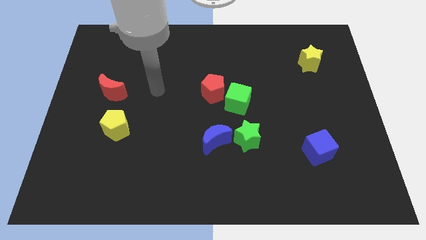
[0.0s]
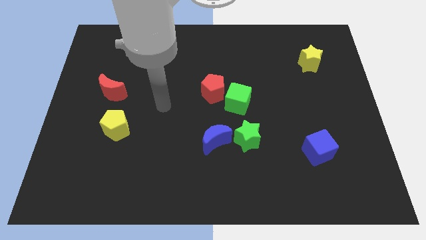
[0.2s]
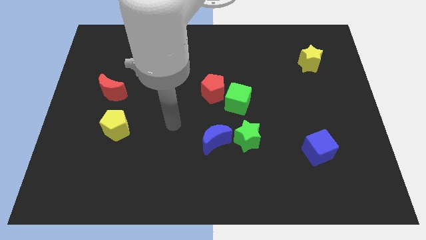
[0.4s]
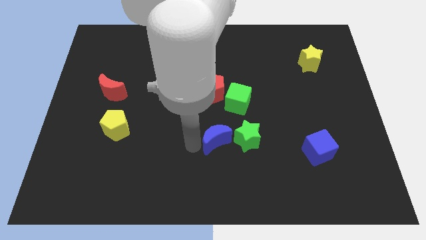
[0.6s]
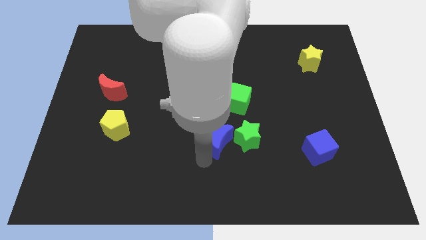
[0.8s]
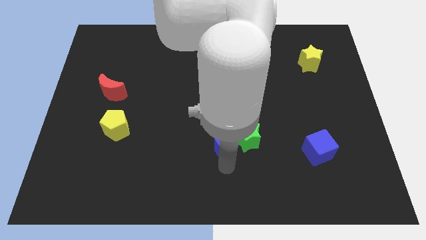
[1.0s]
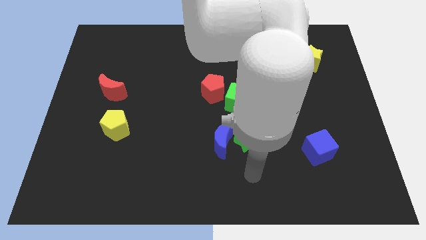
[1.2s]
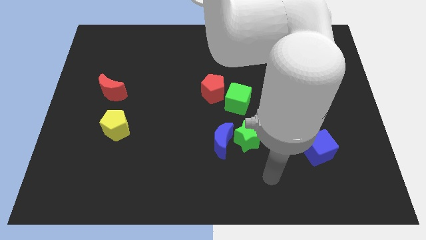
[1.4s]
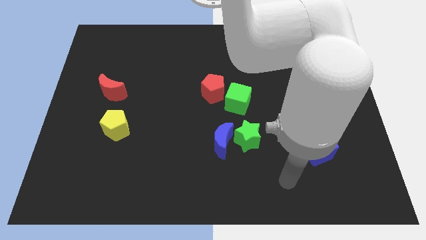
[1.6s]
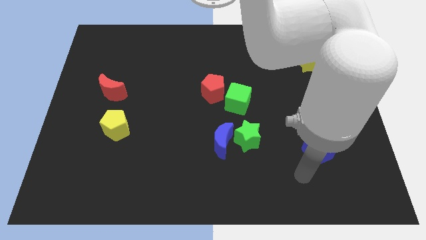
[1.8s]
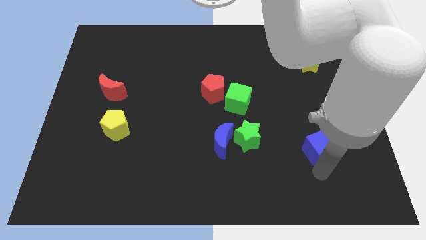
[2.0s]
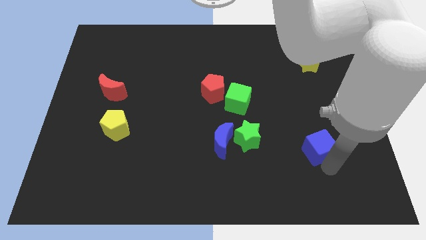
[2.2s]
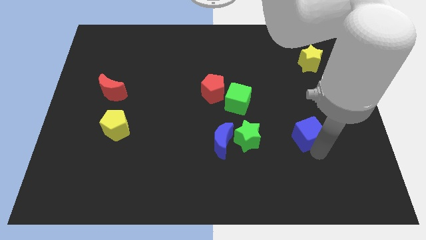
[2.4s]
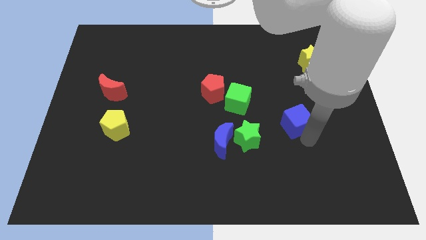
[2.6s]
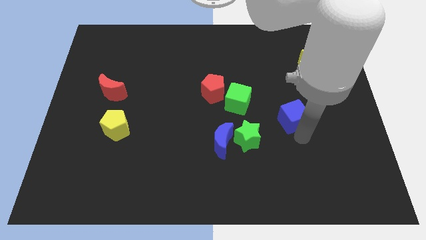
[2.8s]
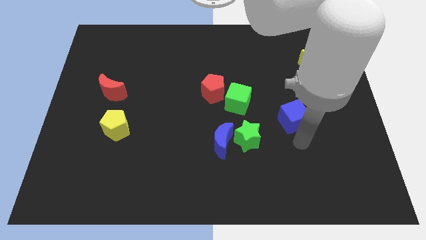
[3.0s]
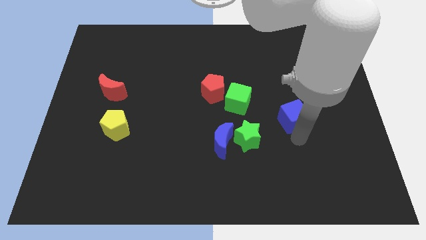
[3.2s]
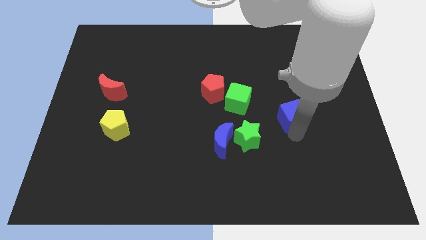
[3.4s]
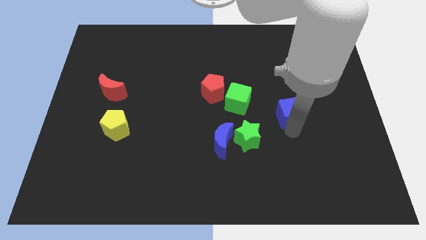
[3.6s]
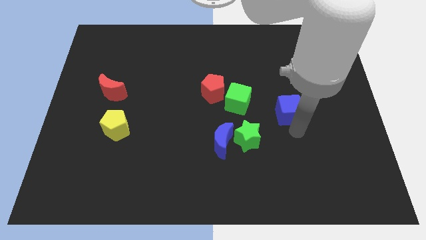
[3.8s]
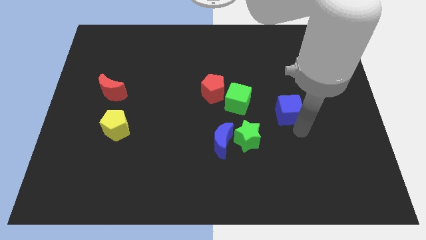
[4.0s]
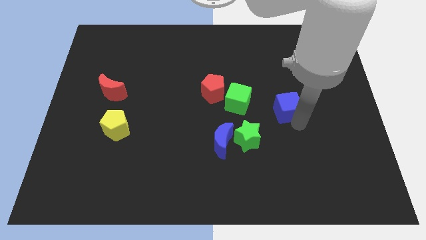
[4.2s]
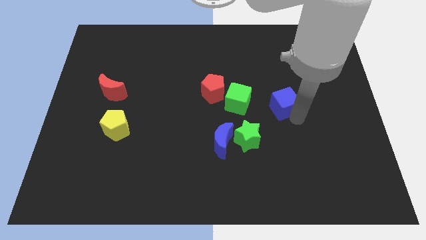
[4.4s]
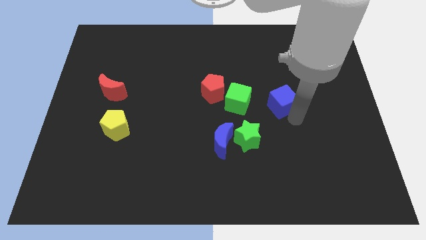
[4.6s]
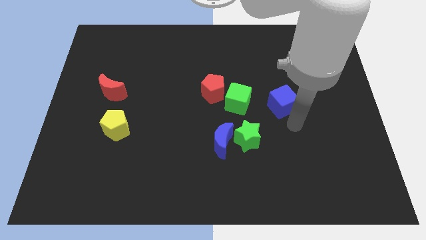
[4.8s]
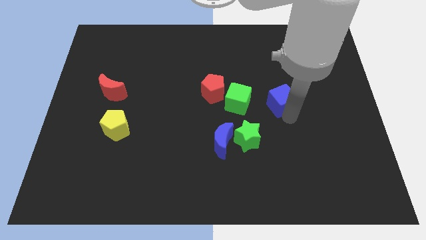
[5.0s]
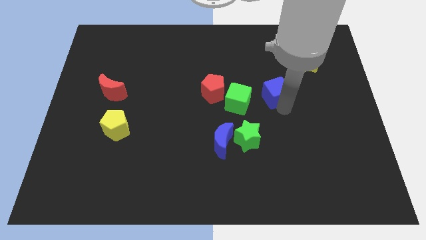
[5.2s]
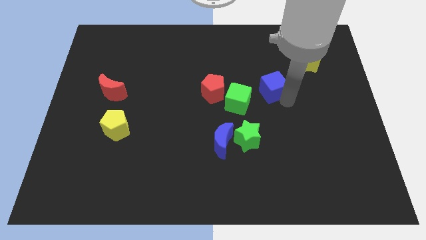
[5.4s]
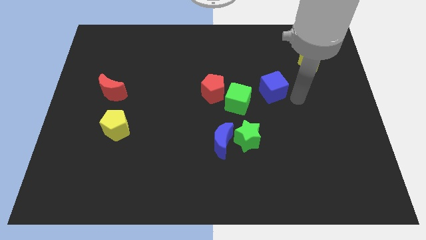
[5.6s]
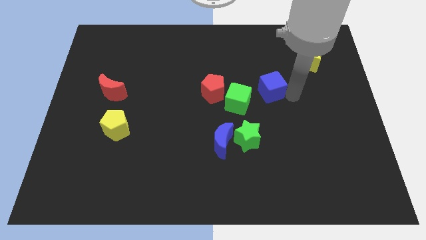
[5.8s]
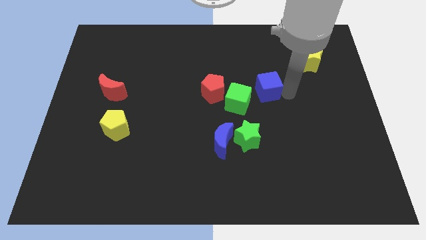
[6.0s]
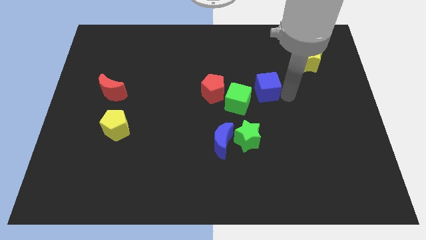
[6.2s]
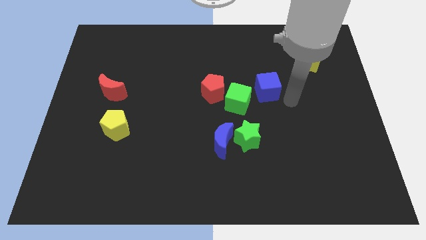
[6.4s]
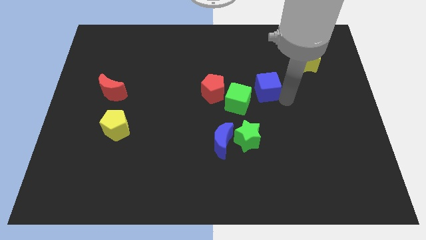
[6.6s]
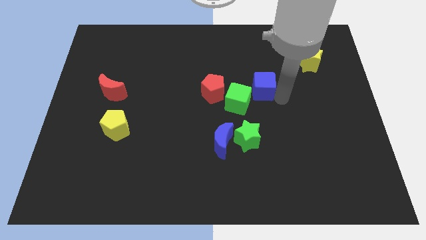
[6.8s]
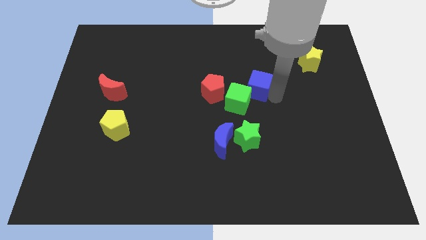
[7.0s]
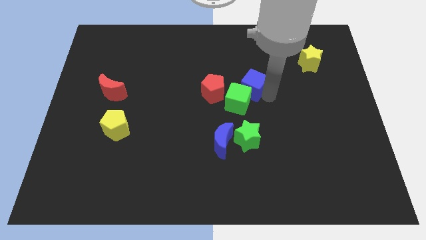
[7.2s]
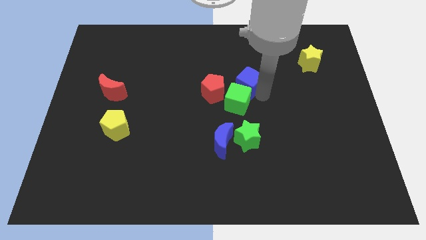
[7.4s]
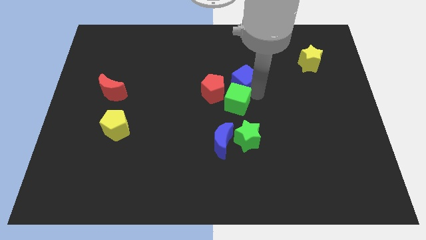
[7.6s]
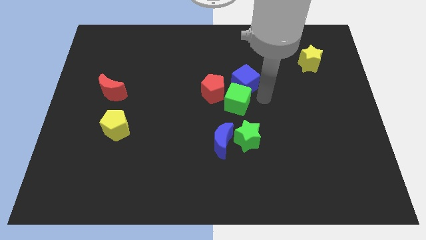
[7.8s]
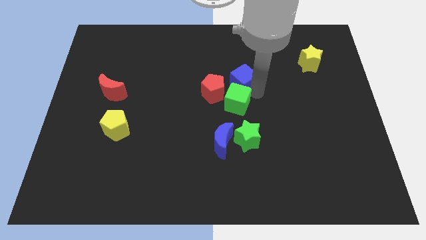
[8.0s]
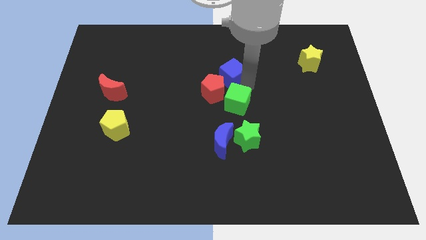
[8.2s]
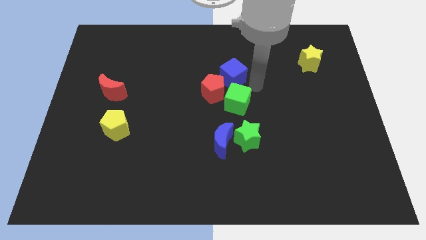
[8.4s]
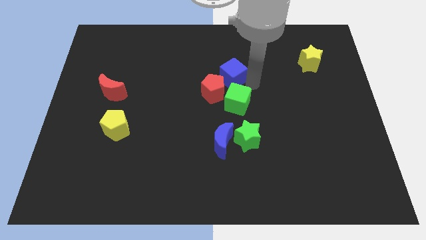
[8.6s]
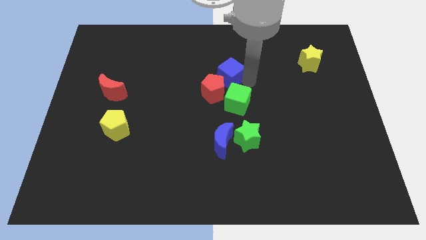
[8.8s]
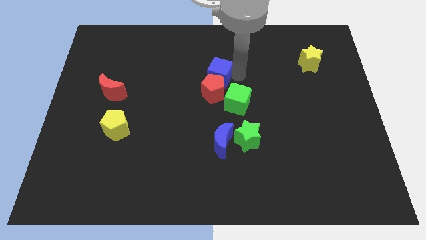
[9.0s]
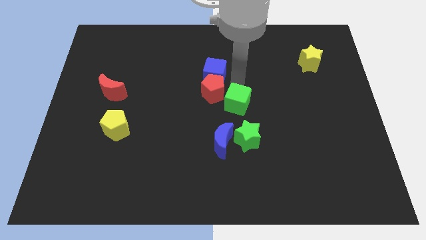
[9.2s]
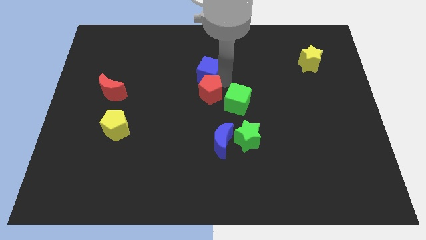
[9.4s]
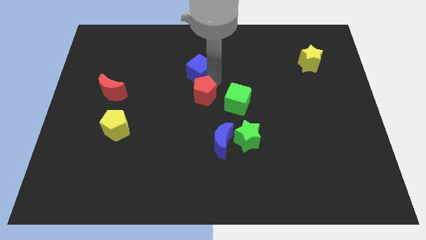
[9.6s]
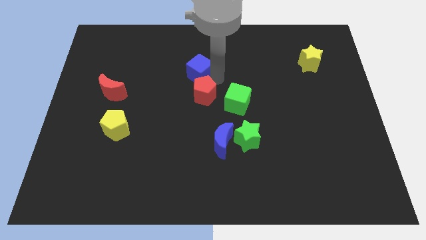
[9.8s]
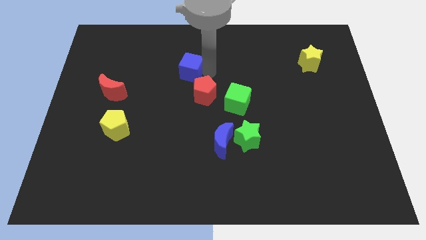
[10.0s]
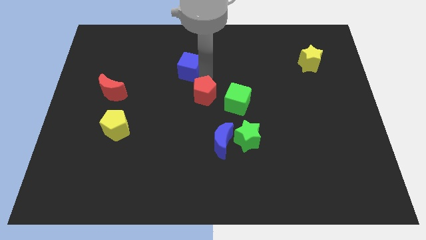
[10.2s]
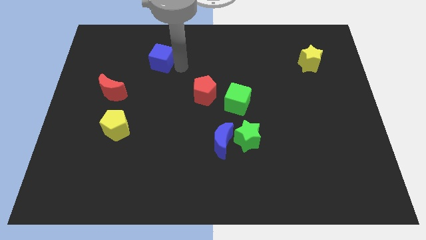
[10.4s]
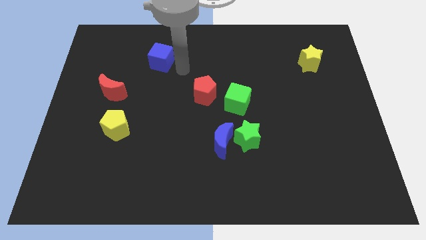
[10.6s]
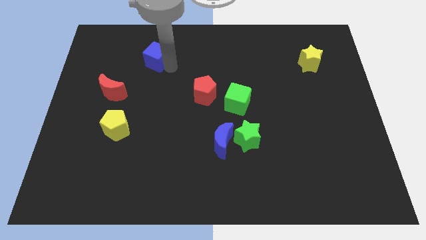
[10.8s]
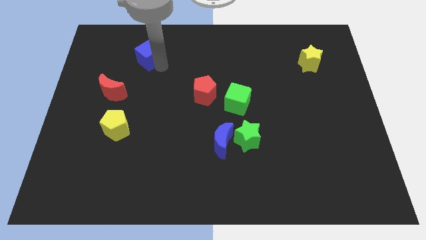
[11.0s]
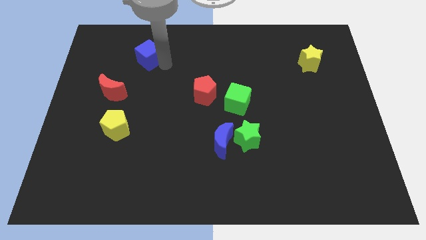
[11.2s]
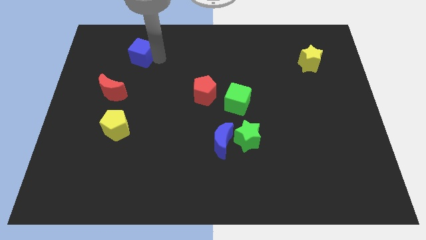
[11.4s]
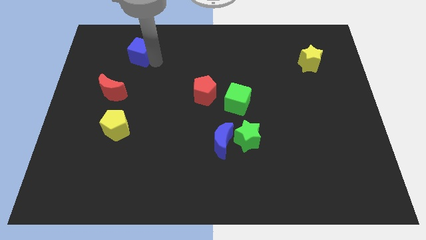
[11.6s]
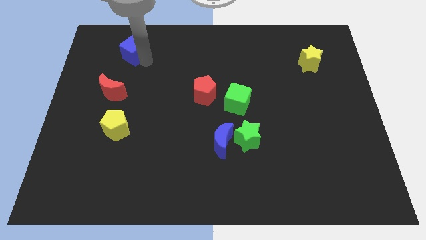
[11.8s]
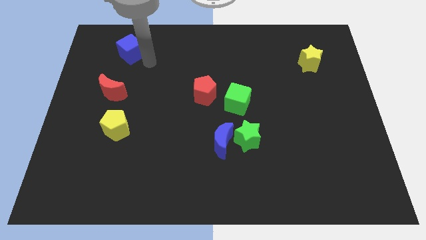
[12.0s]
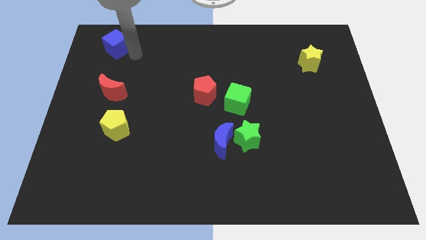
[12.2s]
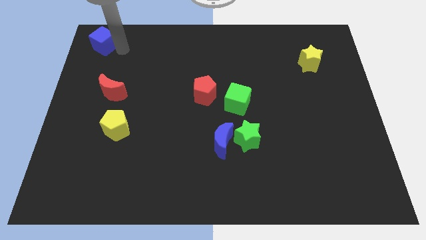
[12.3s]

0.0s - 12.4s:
push the blue cube to the top left

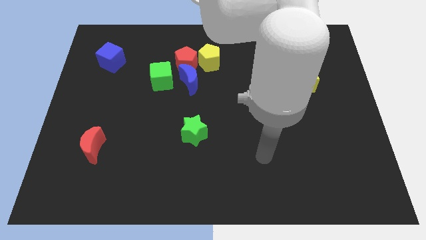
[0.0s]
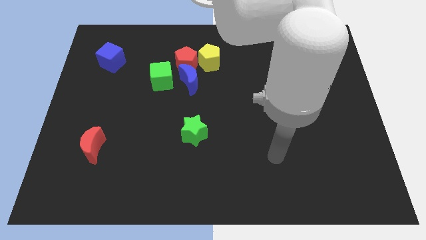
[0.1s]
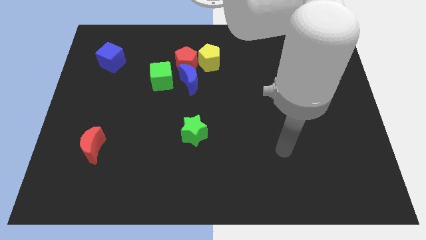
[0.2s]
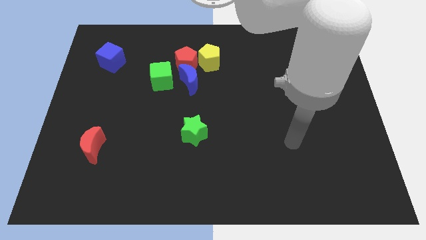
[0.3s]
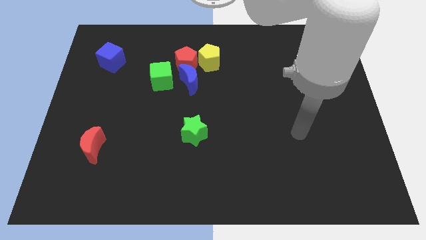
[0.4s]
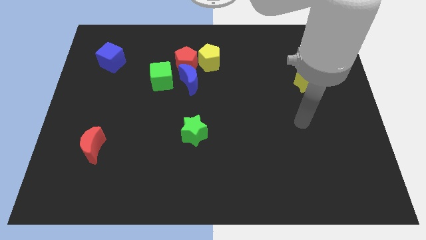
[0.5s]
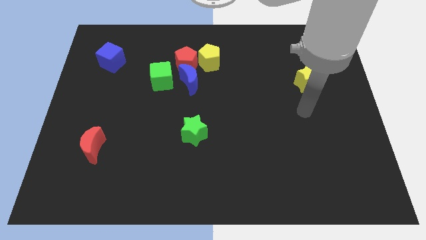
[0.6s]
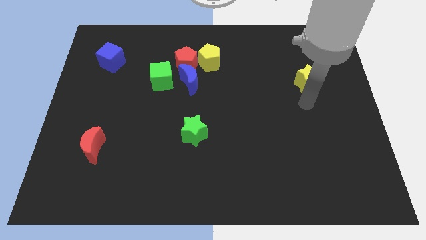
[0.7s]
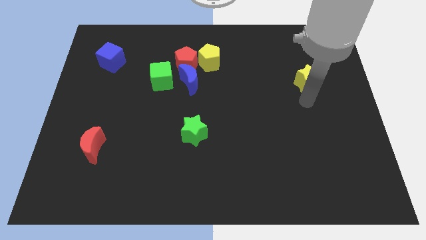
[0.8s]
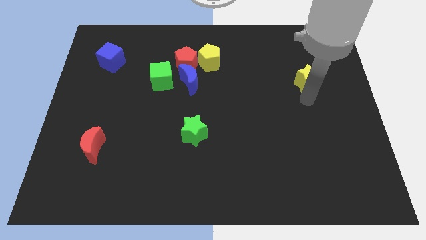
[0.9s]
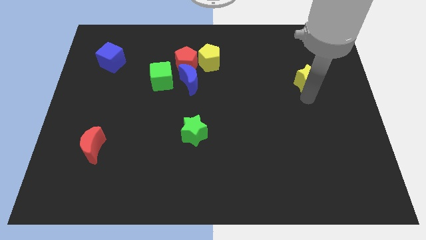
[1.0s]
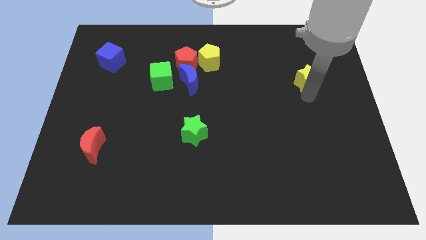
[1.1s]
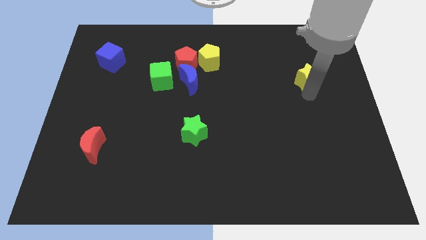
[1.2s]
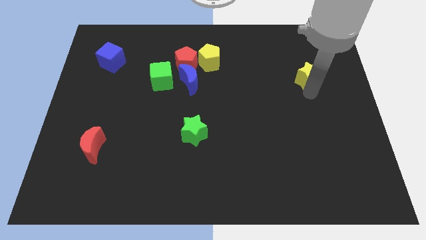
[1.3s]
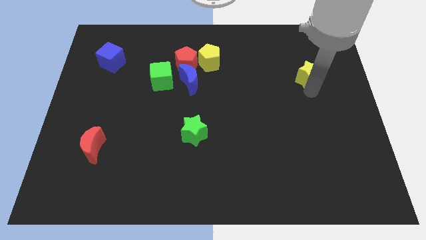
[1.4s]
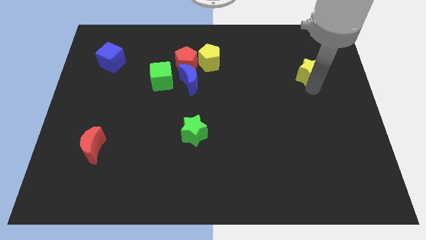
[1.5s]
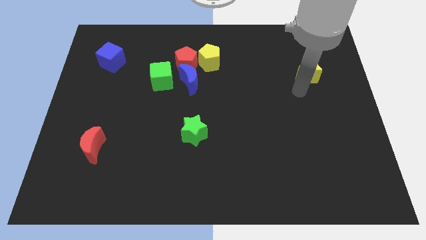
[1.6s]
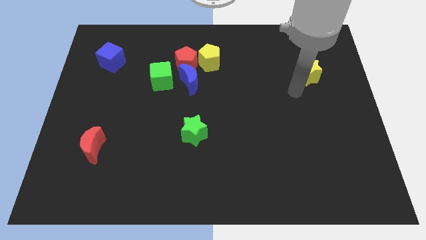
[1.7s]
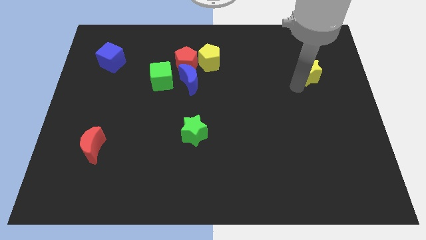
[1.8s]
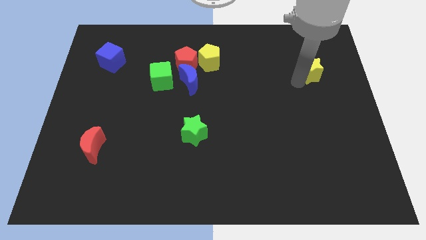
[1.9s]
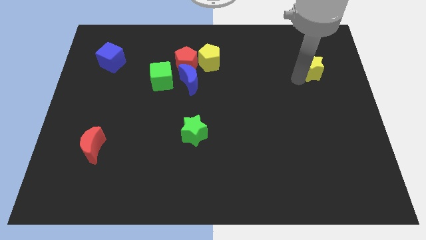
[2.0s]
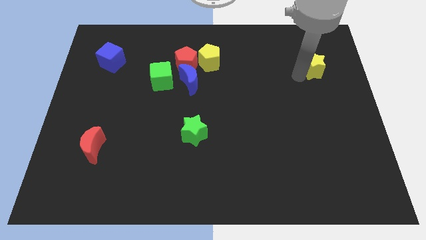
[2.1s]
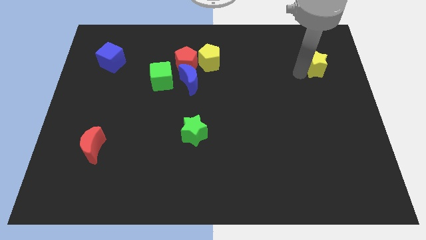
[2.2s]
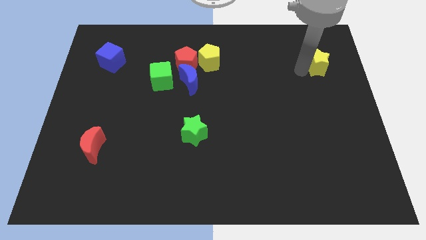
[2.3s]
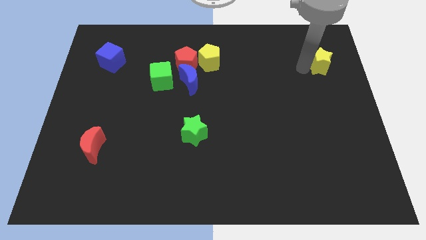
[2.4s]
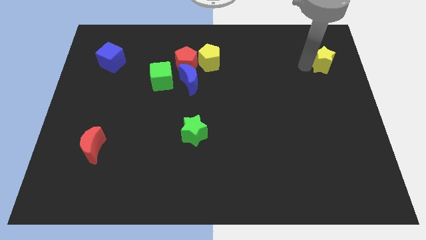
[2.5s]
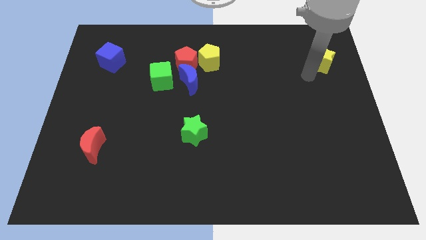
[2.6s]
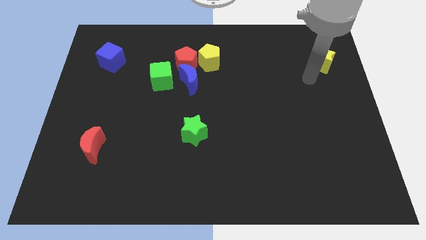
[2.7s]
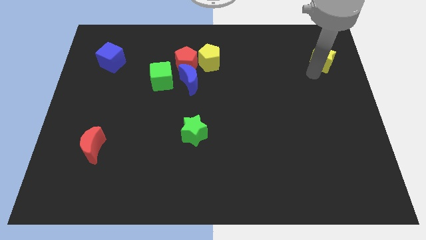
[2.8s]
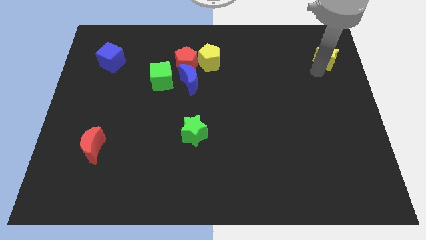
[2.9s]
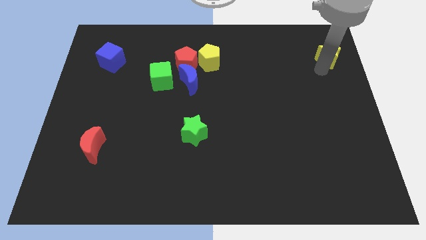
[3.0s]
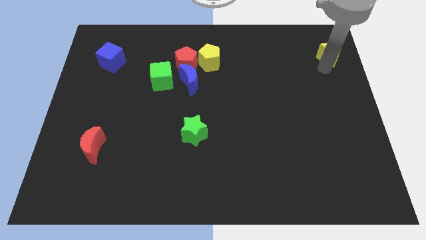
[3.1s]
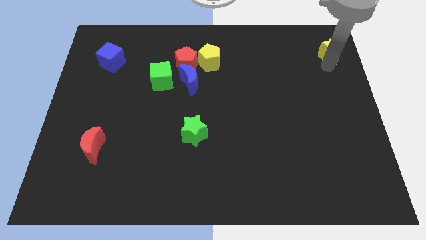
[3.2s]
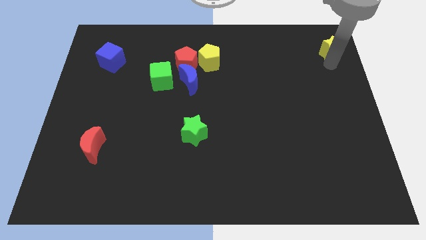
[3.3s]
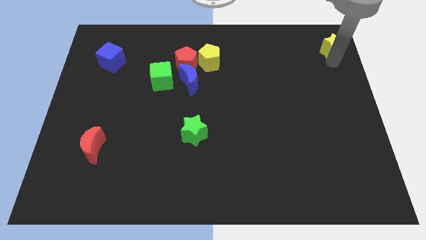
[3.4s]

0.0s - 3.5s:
push the yellow star to the upper right corner
